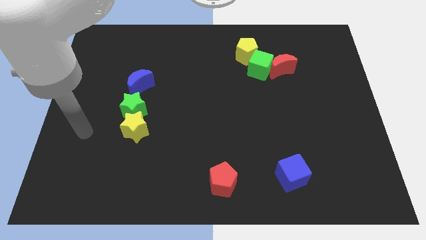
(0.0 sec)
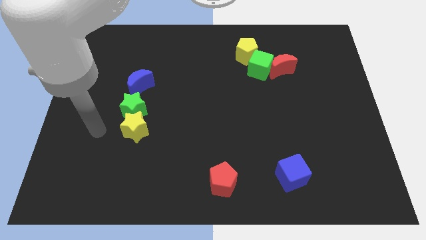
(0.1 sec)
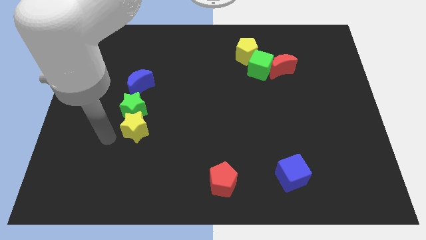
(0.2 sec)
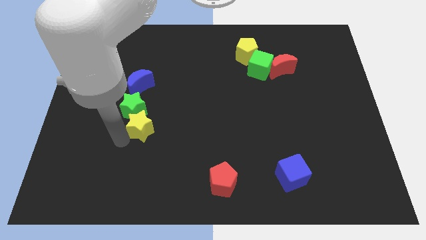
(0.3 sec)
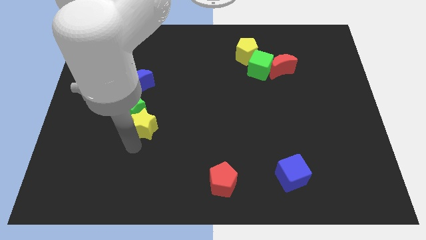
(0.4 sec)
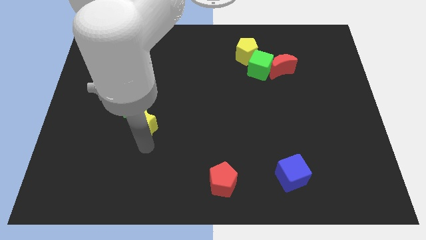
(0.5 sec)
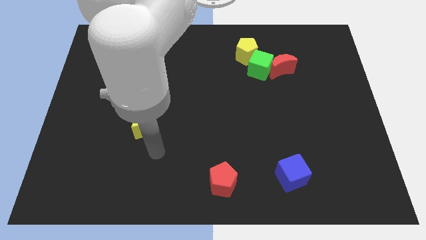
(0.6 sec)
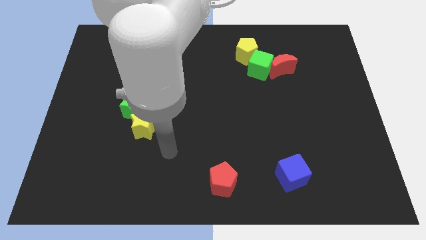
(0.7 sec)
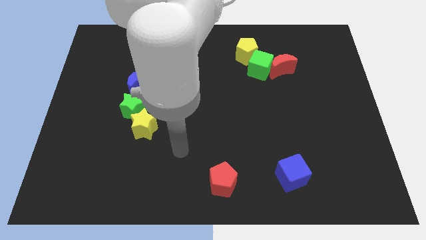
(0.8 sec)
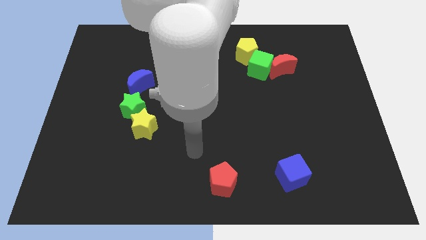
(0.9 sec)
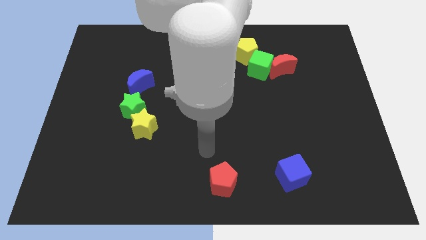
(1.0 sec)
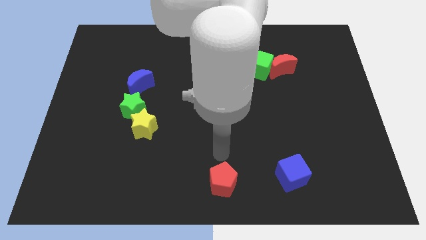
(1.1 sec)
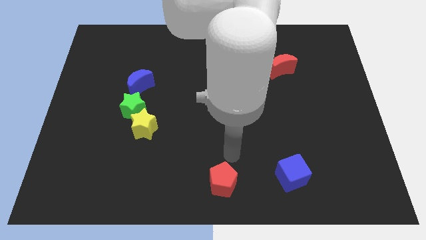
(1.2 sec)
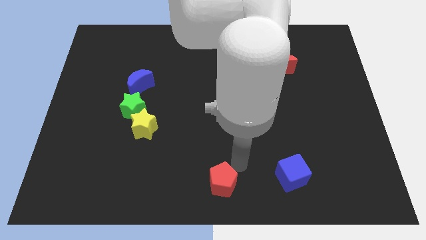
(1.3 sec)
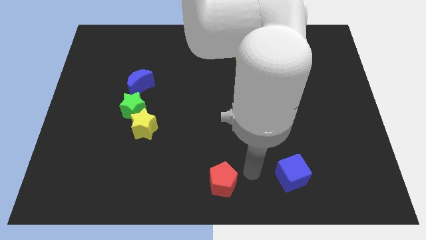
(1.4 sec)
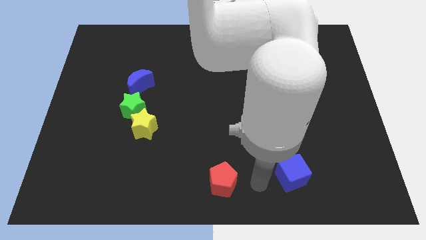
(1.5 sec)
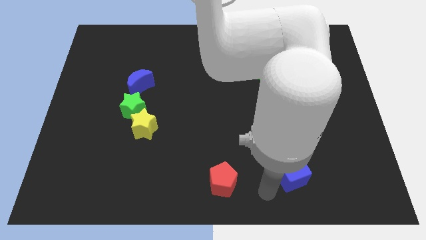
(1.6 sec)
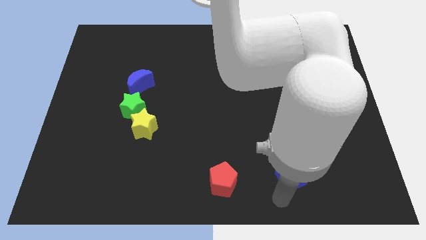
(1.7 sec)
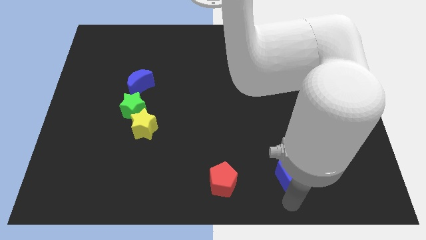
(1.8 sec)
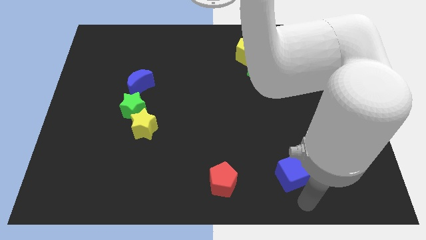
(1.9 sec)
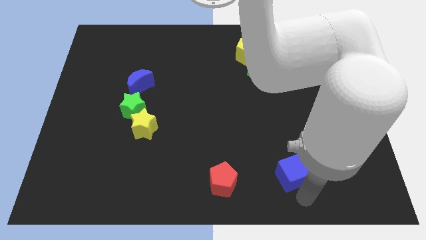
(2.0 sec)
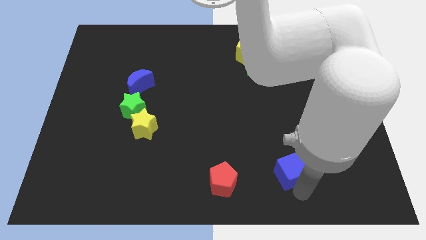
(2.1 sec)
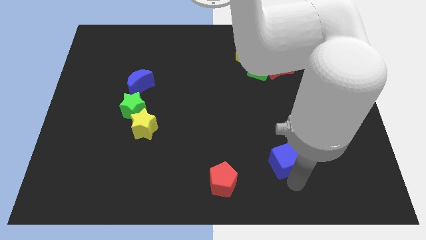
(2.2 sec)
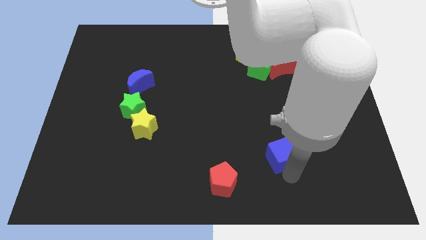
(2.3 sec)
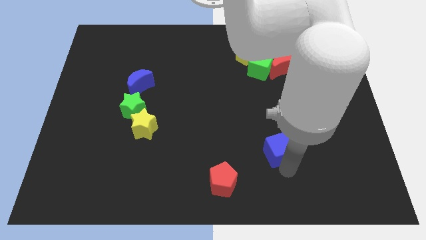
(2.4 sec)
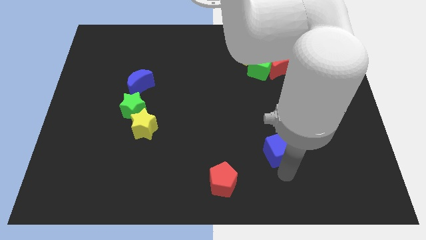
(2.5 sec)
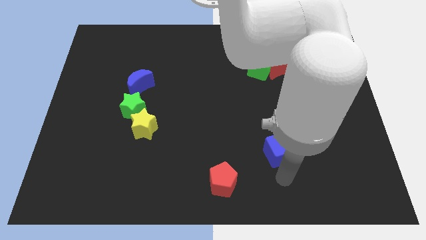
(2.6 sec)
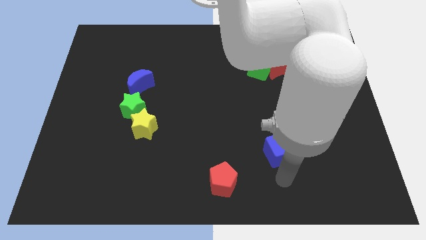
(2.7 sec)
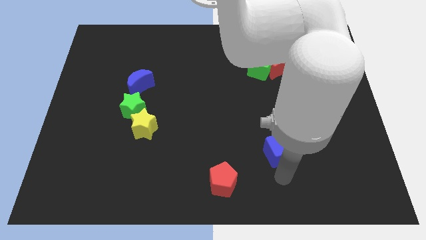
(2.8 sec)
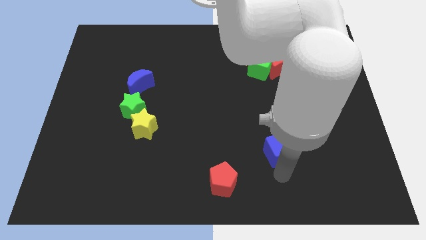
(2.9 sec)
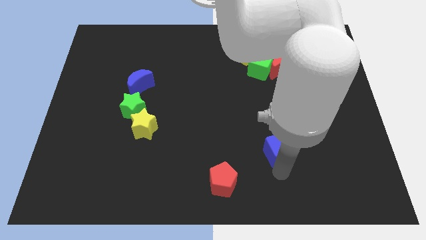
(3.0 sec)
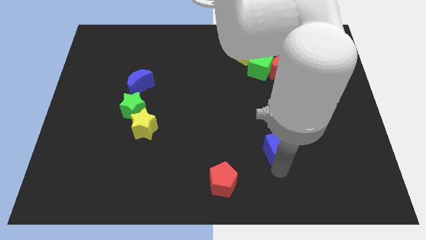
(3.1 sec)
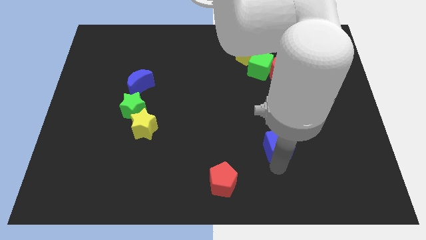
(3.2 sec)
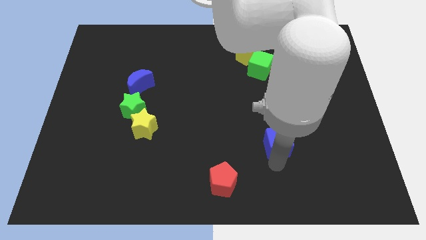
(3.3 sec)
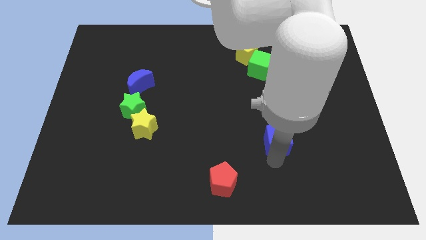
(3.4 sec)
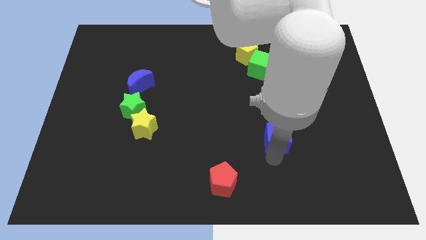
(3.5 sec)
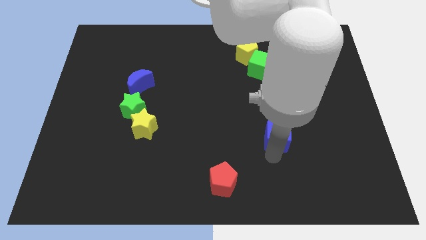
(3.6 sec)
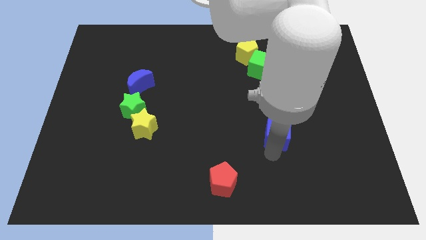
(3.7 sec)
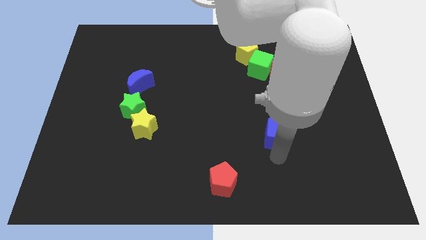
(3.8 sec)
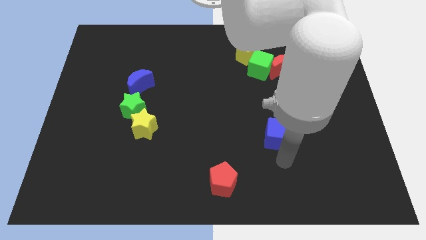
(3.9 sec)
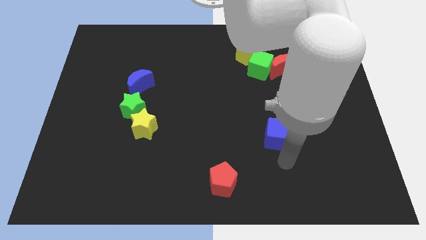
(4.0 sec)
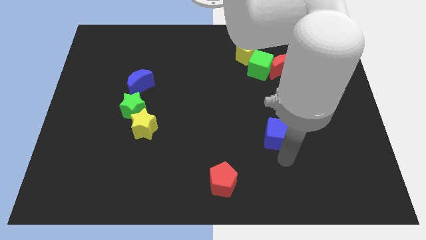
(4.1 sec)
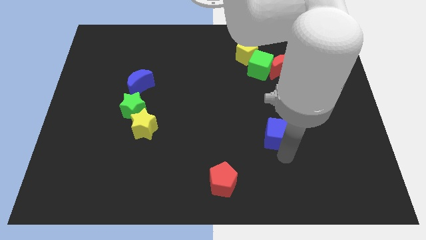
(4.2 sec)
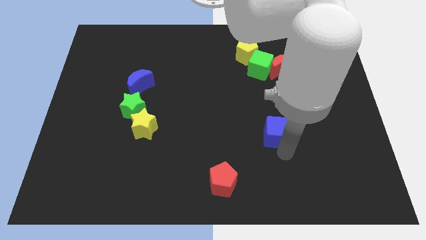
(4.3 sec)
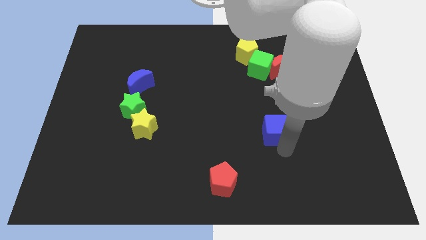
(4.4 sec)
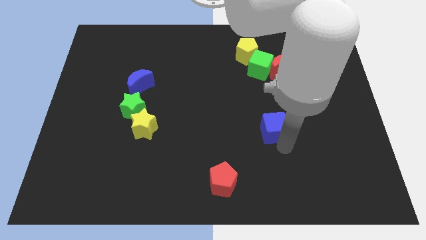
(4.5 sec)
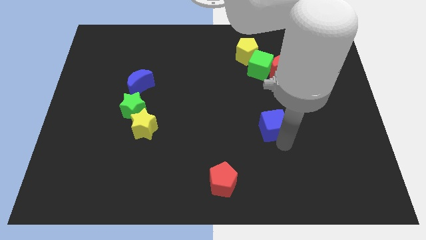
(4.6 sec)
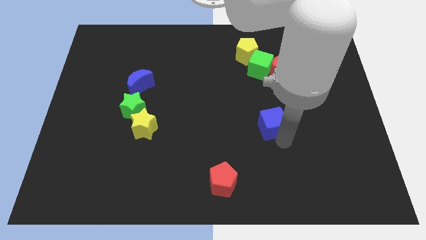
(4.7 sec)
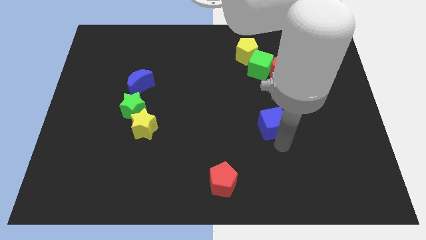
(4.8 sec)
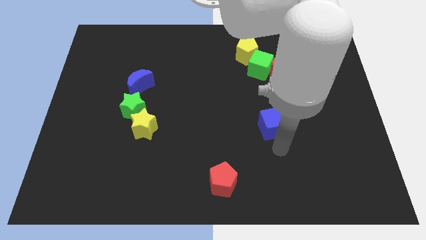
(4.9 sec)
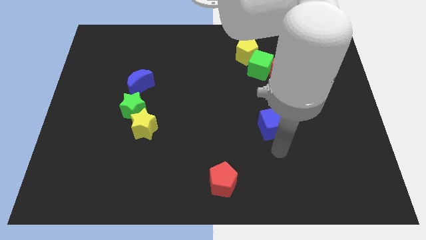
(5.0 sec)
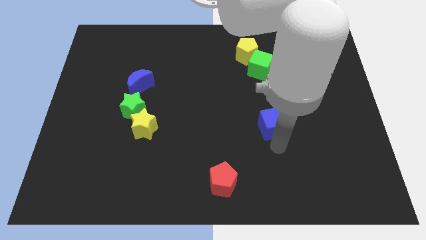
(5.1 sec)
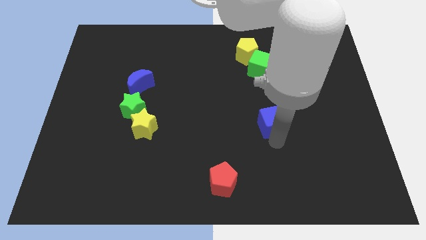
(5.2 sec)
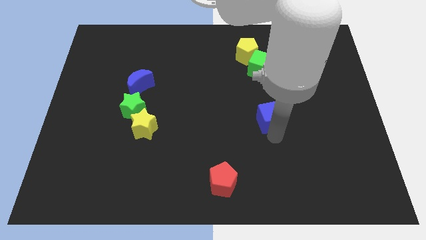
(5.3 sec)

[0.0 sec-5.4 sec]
push the blue cube to the bottom side of the green cube

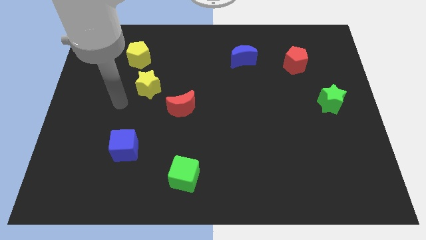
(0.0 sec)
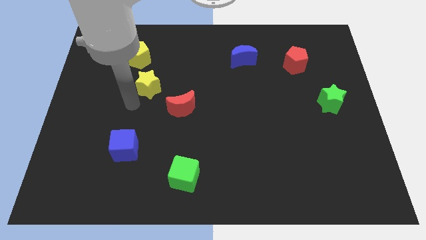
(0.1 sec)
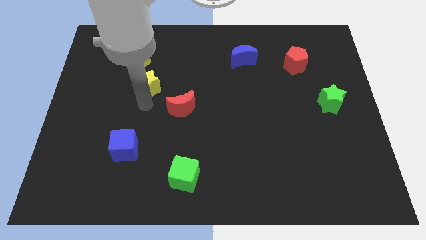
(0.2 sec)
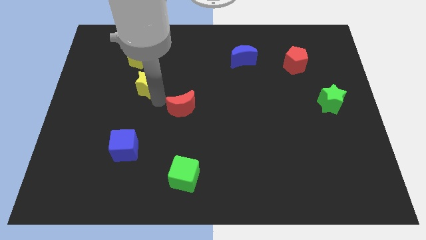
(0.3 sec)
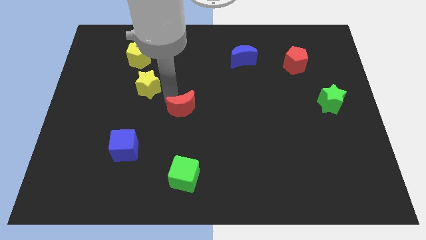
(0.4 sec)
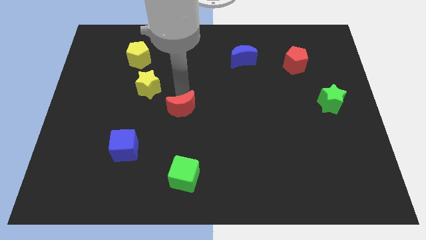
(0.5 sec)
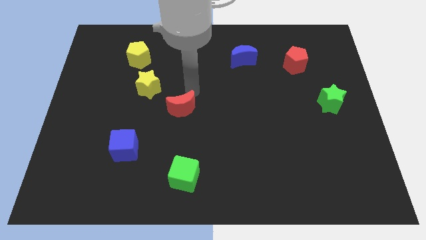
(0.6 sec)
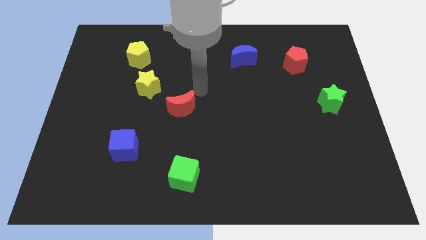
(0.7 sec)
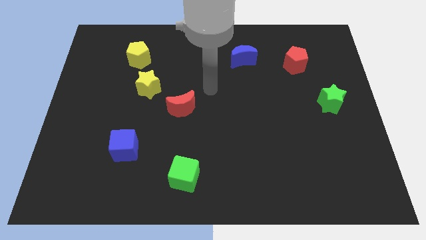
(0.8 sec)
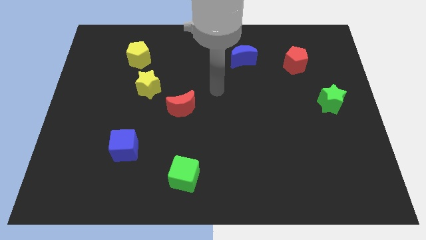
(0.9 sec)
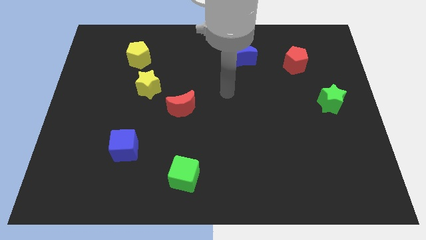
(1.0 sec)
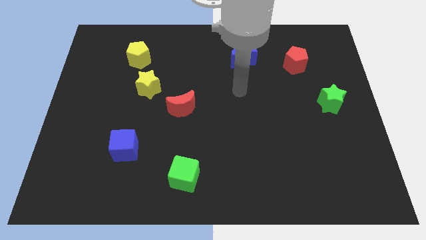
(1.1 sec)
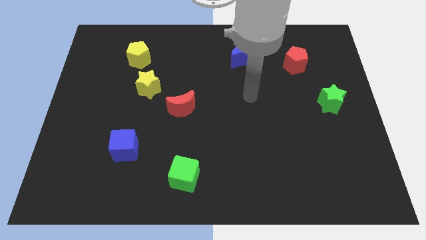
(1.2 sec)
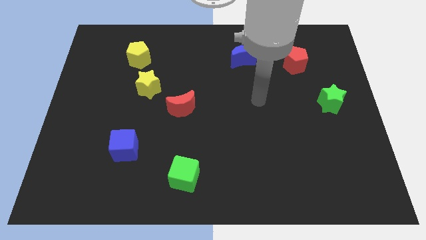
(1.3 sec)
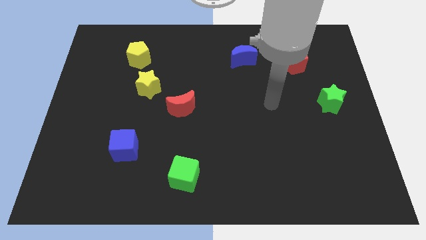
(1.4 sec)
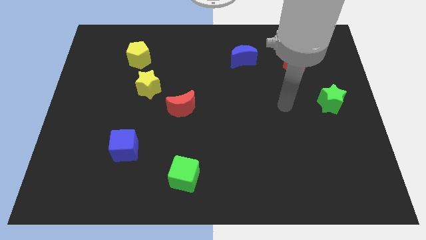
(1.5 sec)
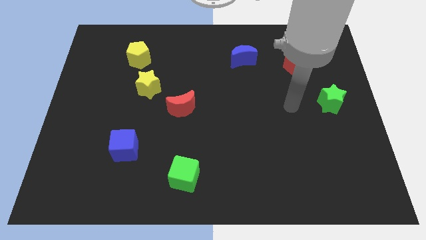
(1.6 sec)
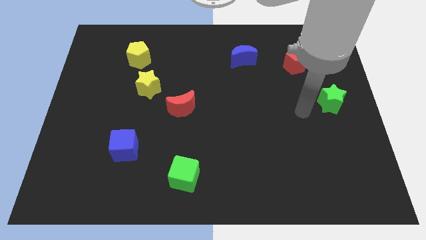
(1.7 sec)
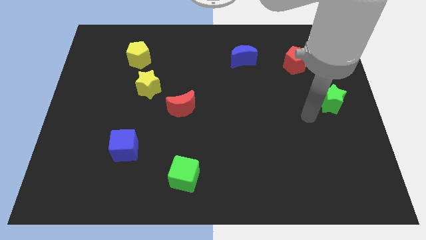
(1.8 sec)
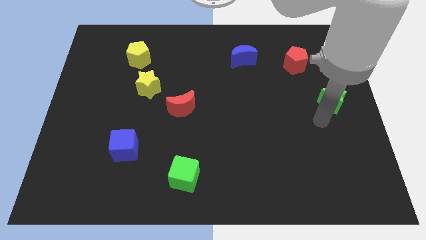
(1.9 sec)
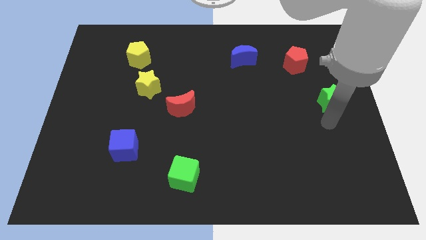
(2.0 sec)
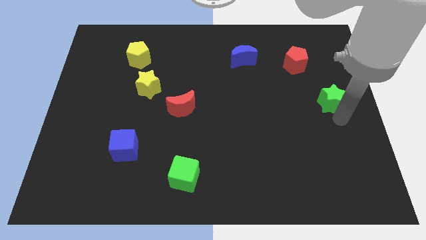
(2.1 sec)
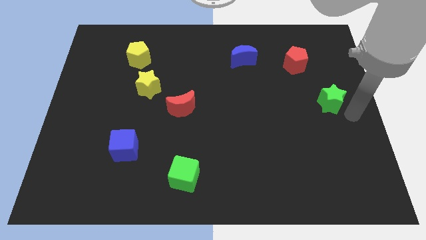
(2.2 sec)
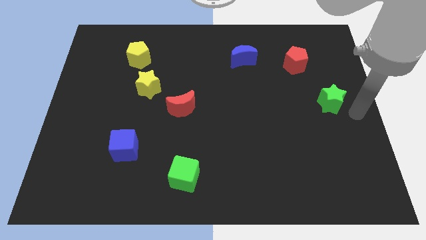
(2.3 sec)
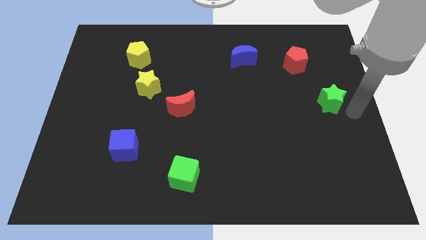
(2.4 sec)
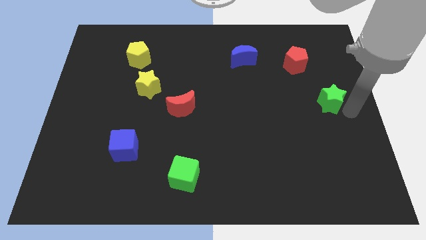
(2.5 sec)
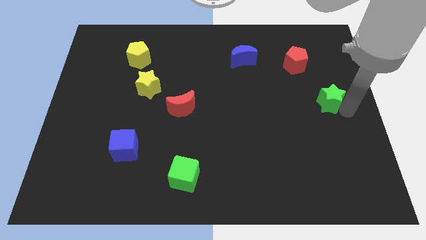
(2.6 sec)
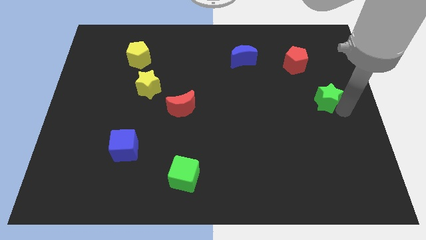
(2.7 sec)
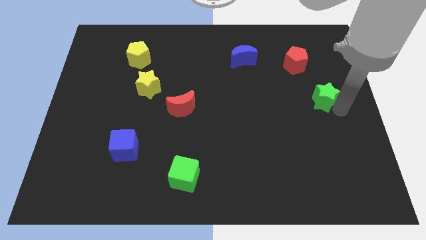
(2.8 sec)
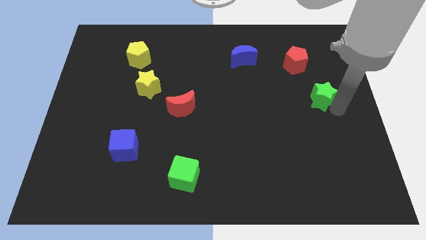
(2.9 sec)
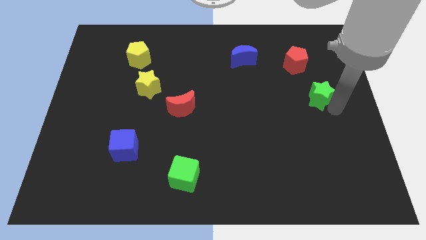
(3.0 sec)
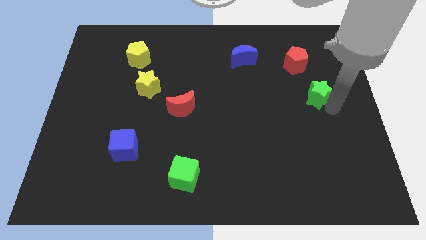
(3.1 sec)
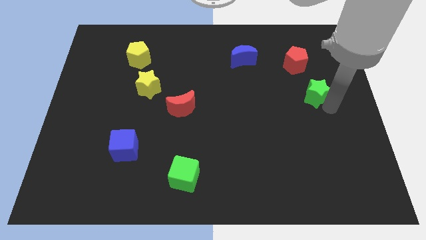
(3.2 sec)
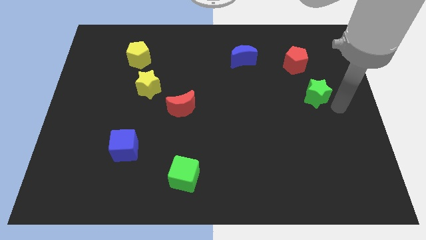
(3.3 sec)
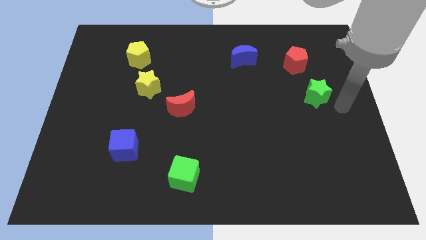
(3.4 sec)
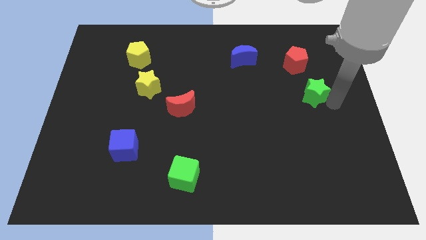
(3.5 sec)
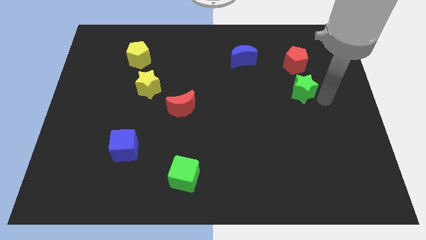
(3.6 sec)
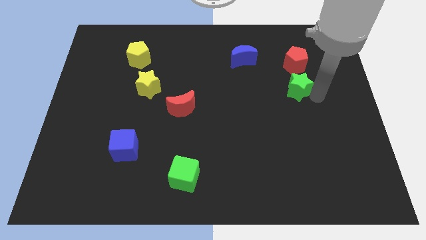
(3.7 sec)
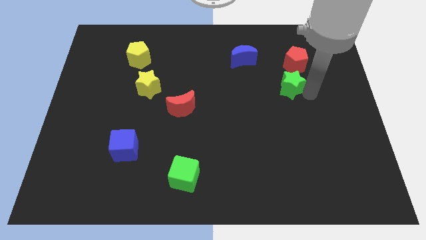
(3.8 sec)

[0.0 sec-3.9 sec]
put the green star diagonally down and to the left of the red pentagon
